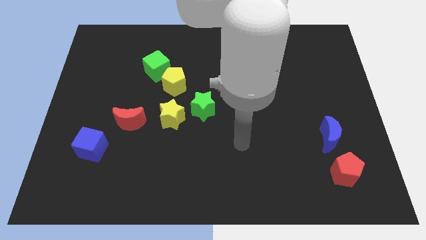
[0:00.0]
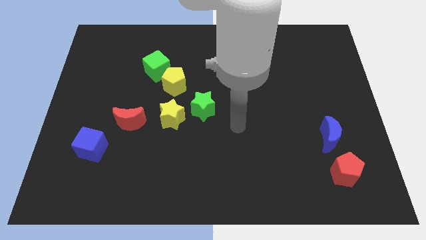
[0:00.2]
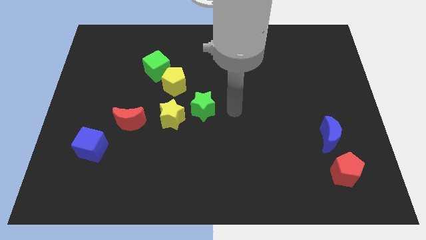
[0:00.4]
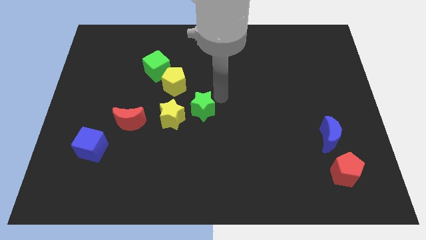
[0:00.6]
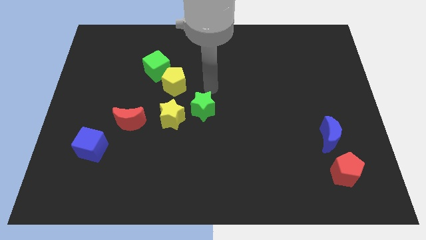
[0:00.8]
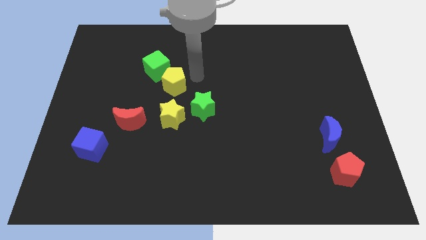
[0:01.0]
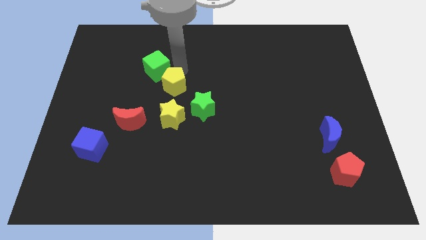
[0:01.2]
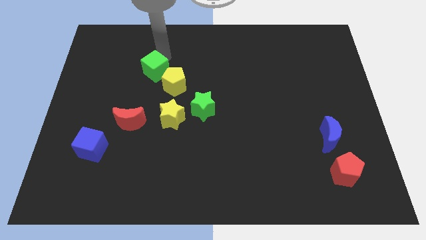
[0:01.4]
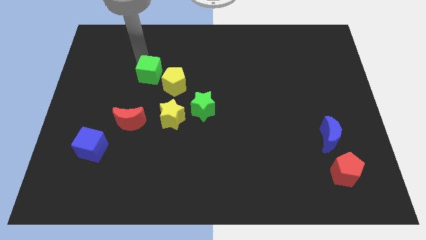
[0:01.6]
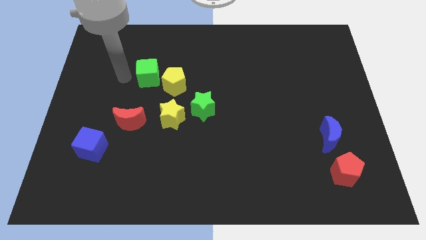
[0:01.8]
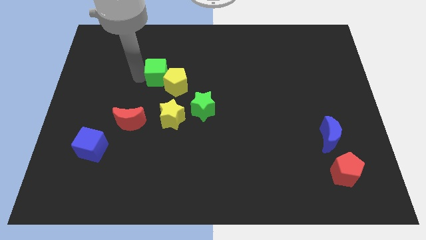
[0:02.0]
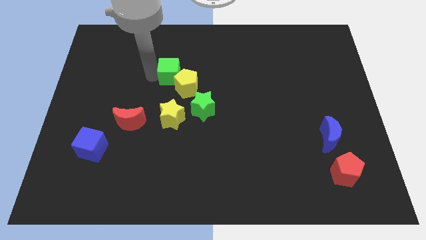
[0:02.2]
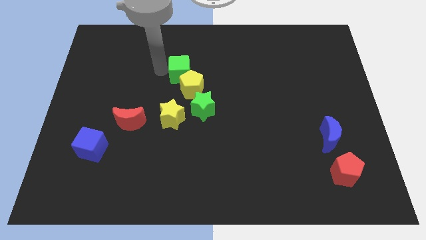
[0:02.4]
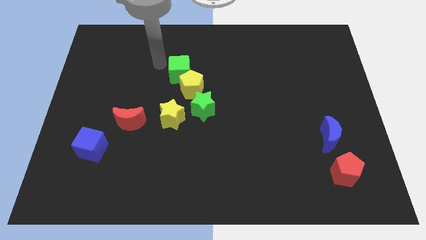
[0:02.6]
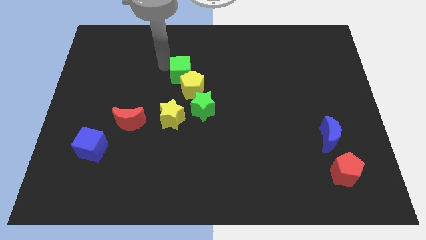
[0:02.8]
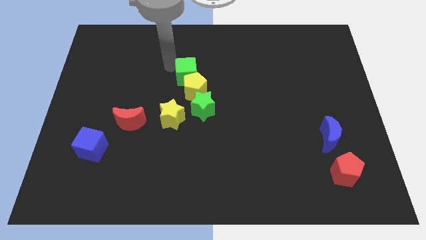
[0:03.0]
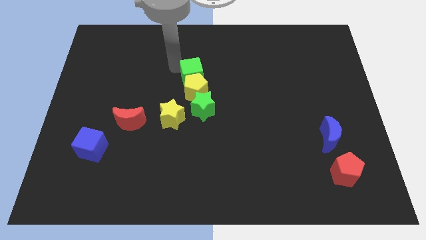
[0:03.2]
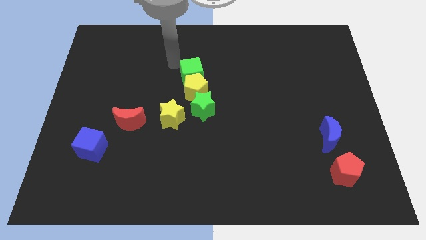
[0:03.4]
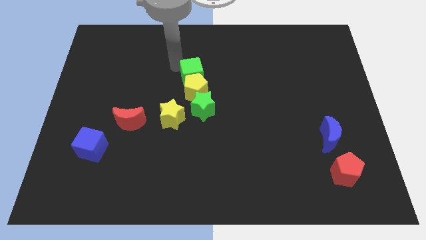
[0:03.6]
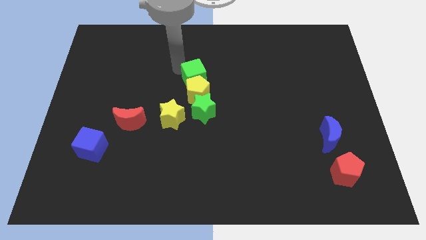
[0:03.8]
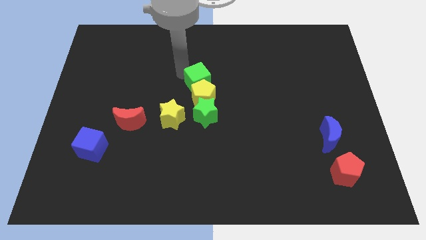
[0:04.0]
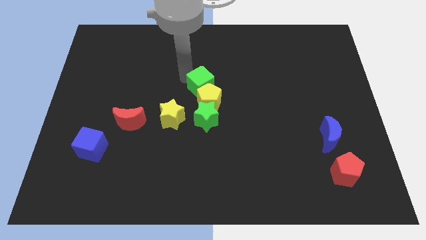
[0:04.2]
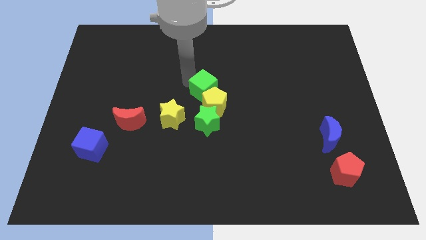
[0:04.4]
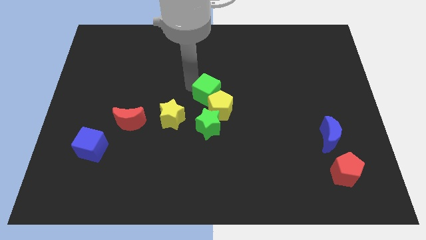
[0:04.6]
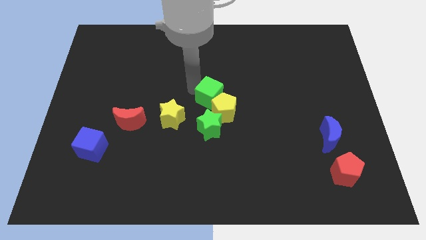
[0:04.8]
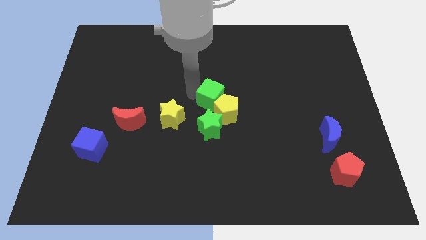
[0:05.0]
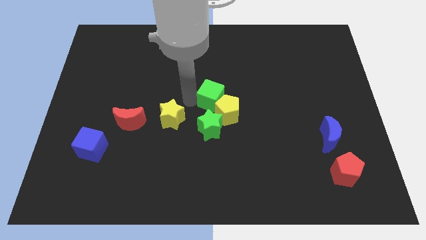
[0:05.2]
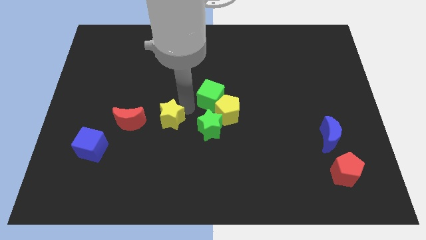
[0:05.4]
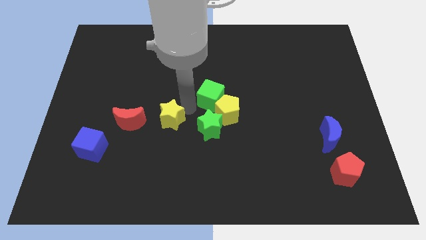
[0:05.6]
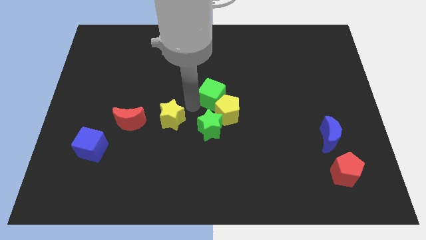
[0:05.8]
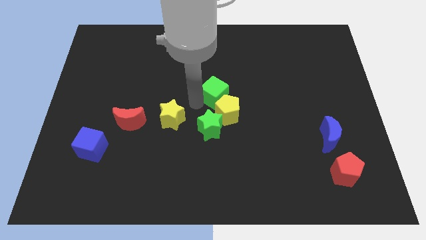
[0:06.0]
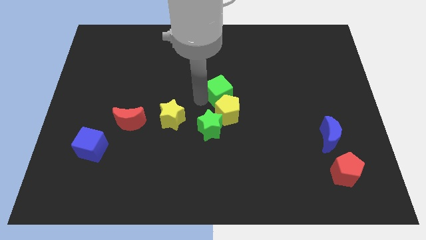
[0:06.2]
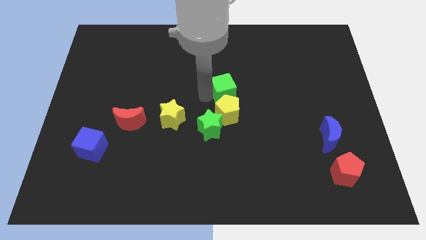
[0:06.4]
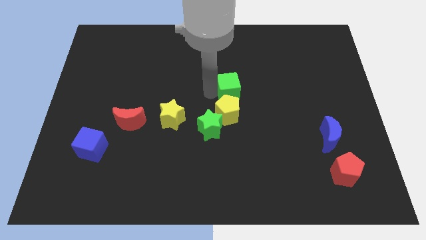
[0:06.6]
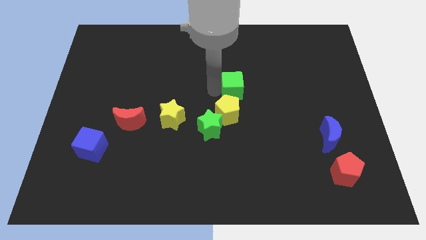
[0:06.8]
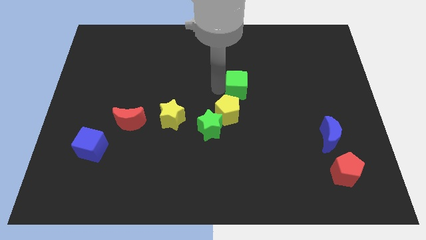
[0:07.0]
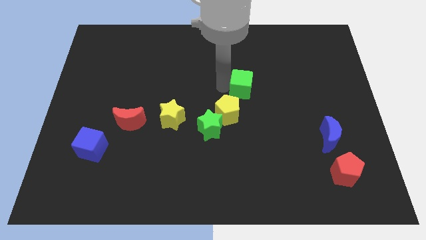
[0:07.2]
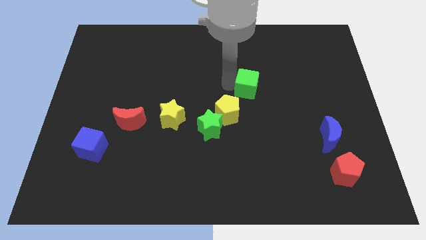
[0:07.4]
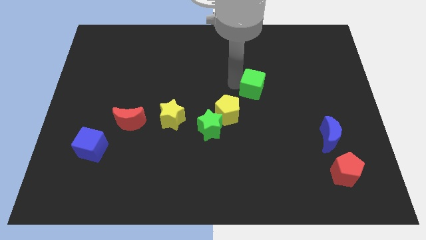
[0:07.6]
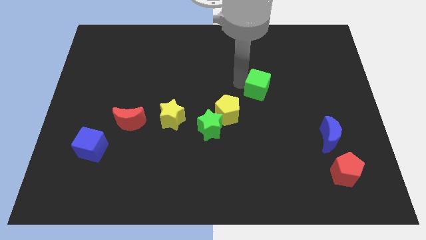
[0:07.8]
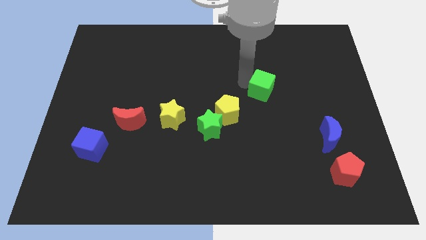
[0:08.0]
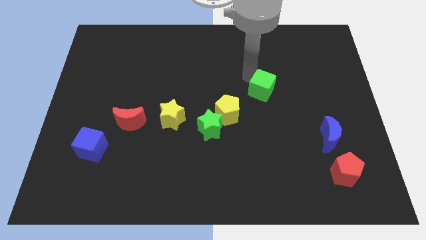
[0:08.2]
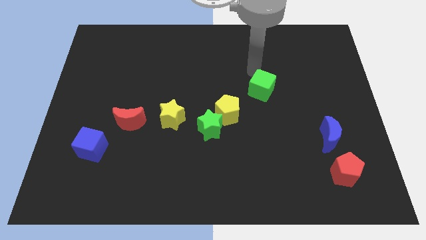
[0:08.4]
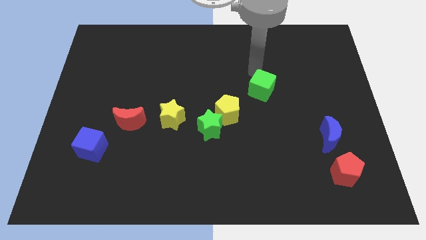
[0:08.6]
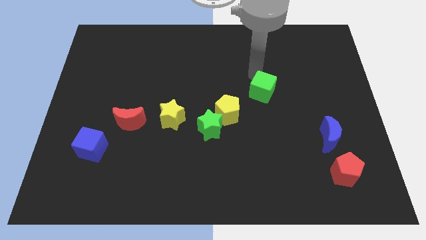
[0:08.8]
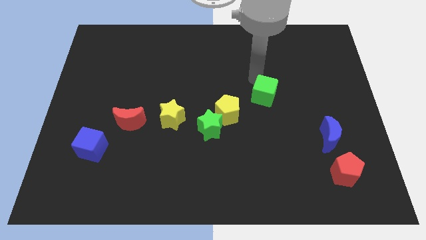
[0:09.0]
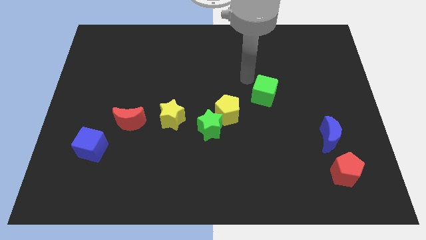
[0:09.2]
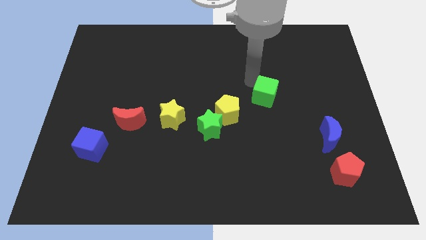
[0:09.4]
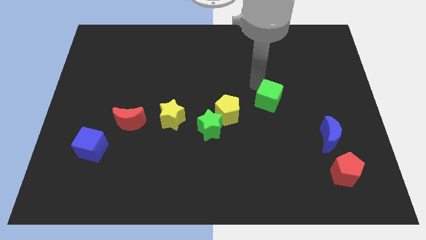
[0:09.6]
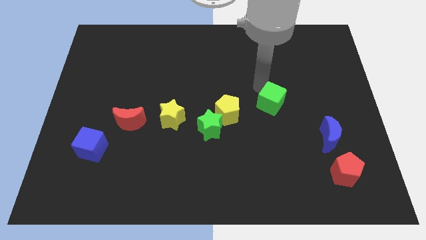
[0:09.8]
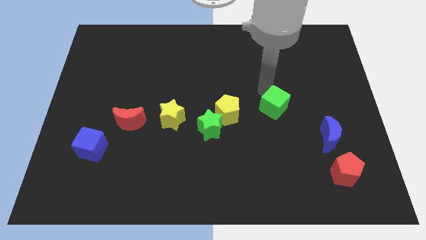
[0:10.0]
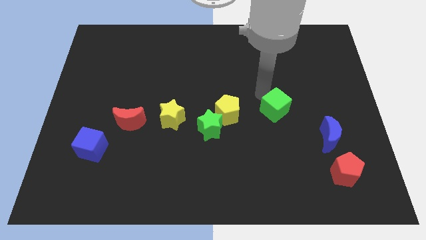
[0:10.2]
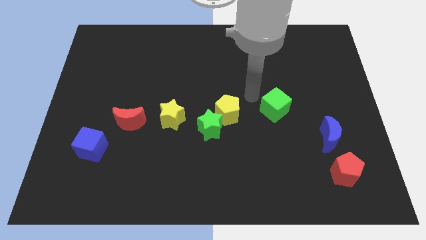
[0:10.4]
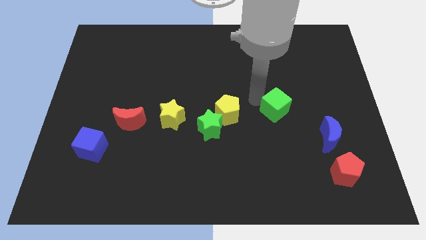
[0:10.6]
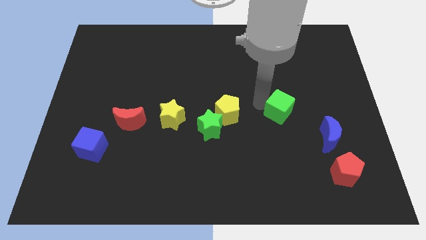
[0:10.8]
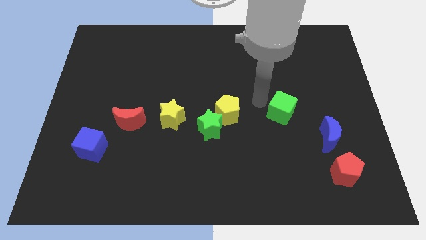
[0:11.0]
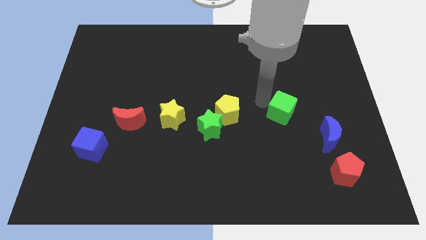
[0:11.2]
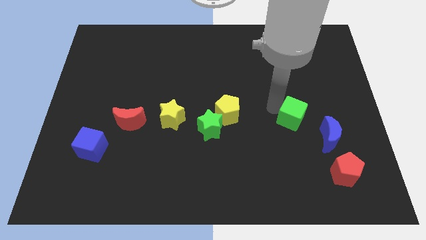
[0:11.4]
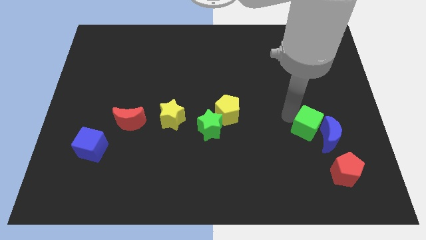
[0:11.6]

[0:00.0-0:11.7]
move the green cube towards the blue moon

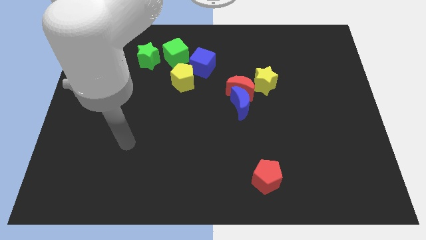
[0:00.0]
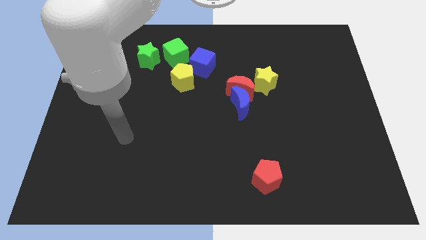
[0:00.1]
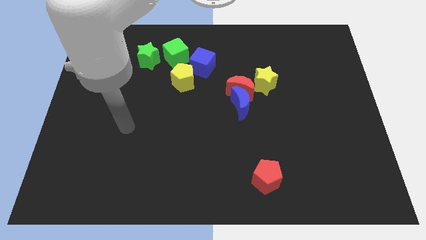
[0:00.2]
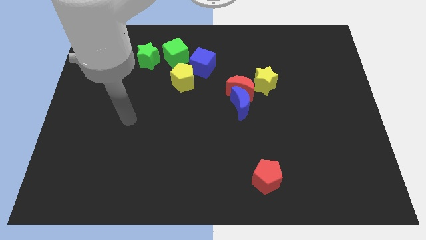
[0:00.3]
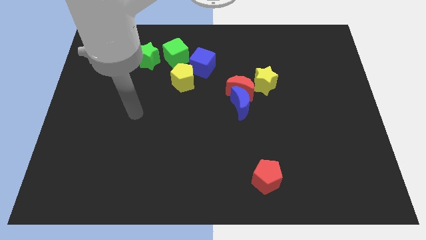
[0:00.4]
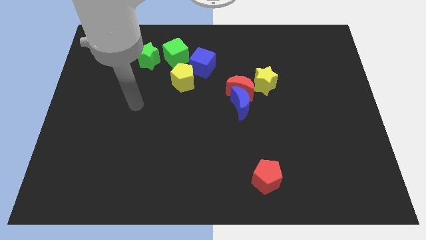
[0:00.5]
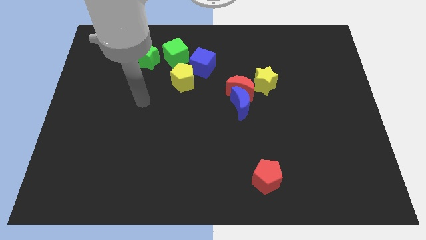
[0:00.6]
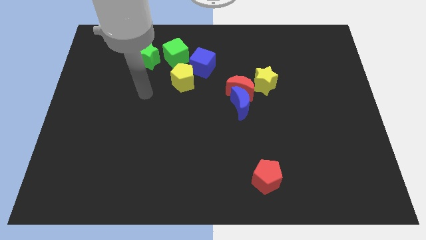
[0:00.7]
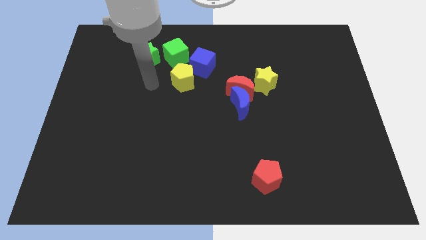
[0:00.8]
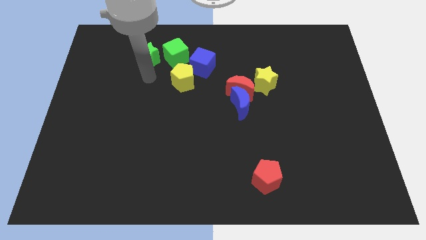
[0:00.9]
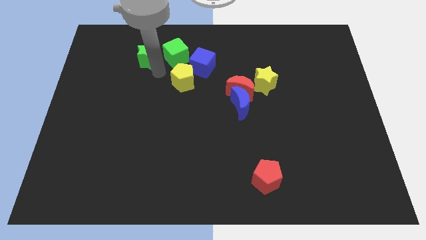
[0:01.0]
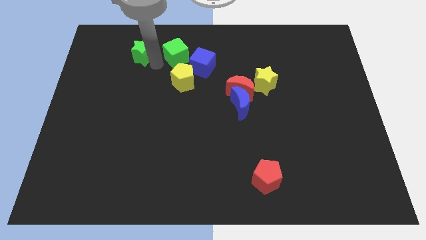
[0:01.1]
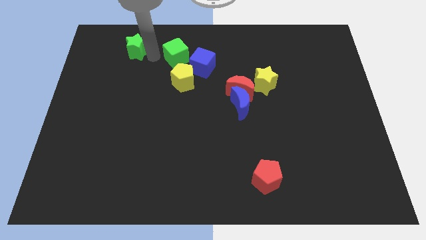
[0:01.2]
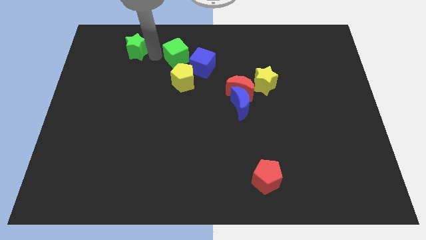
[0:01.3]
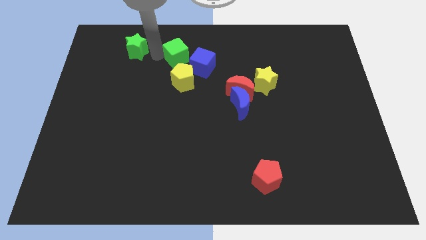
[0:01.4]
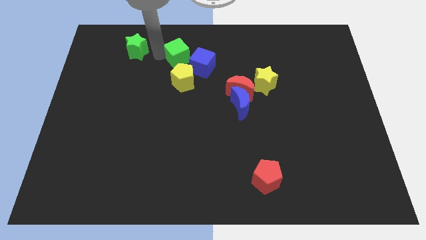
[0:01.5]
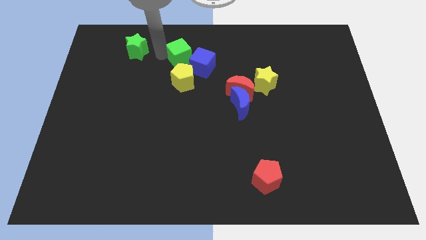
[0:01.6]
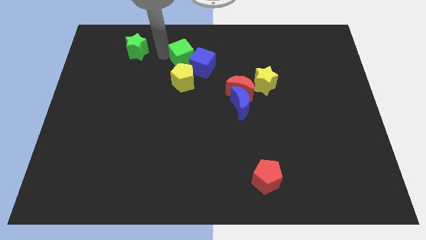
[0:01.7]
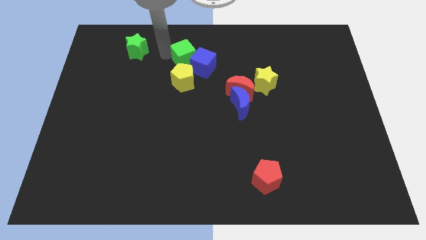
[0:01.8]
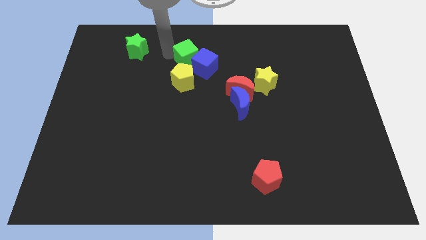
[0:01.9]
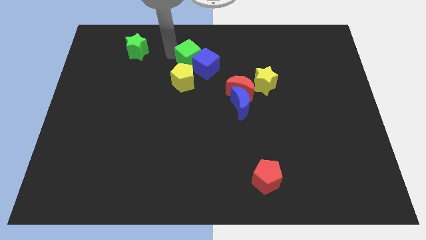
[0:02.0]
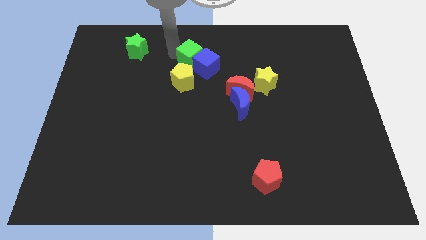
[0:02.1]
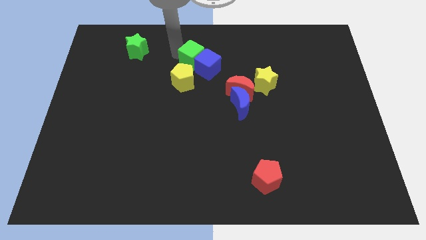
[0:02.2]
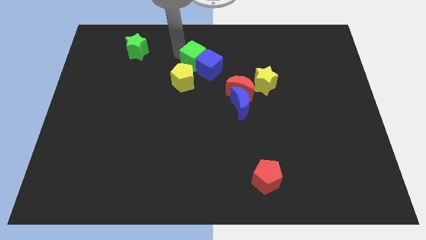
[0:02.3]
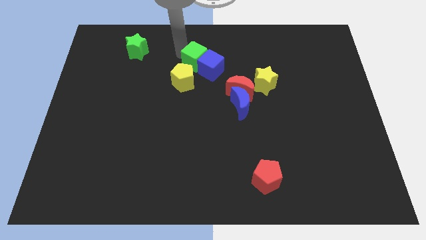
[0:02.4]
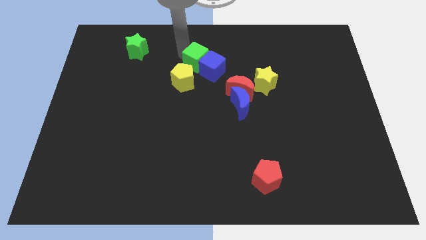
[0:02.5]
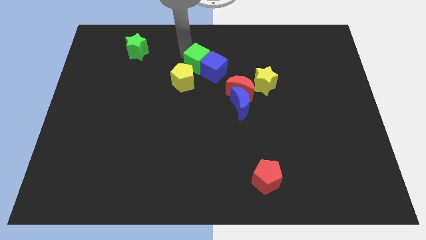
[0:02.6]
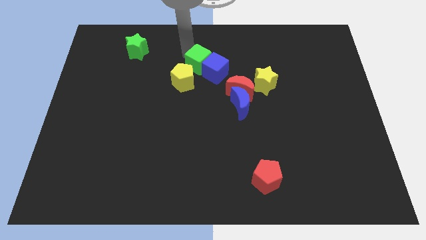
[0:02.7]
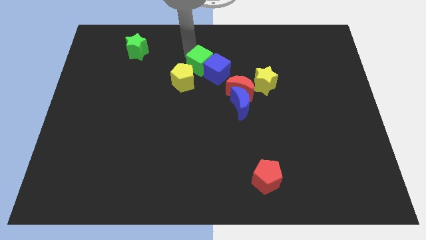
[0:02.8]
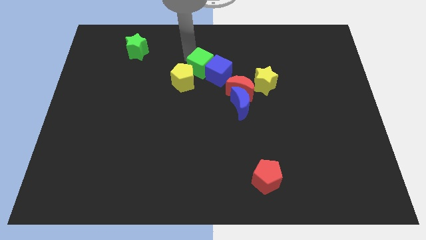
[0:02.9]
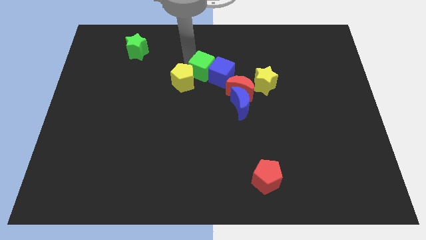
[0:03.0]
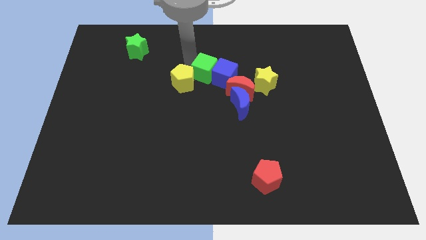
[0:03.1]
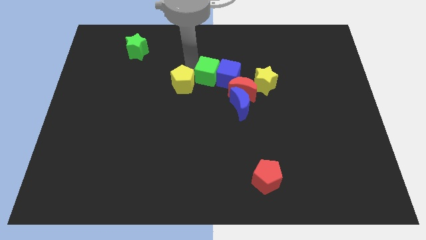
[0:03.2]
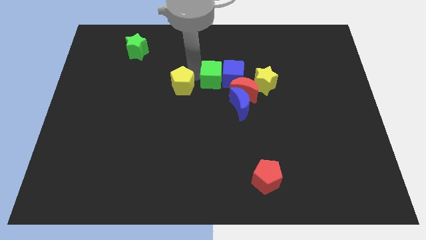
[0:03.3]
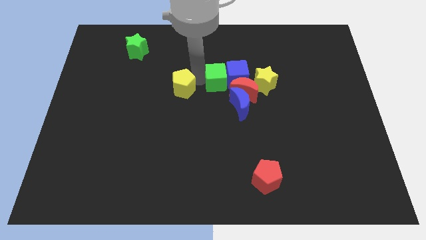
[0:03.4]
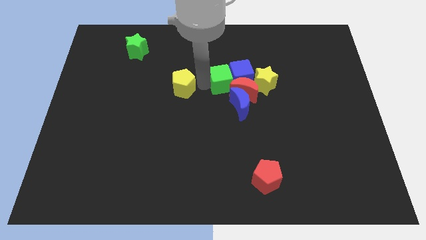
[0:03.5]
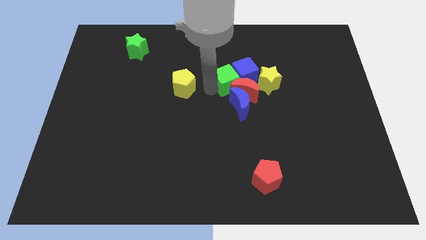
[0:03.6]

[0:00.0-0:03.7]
move the green cube towards the red moon
